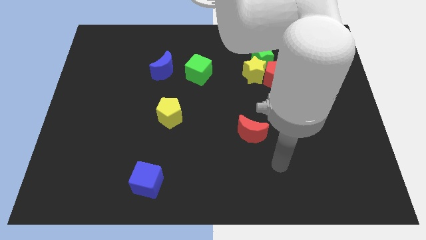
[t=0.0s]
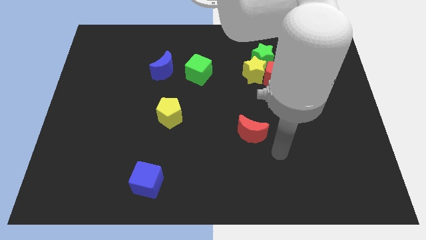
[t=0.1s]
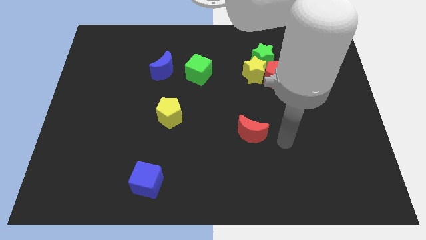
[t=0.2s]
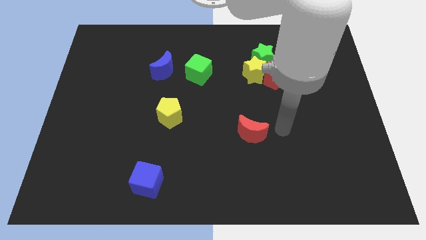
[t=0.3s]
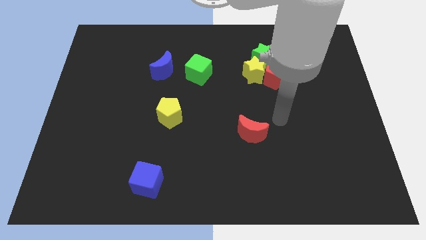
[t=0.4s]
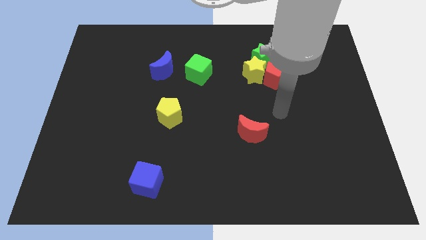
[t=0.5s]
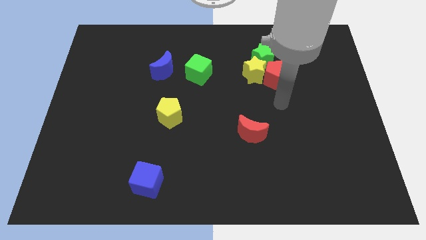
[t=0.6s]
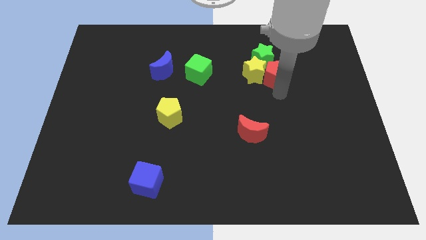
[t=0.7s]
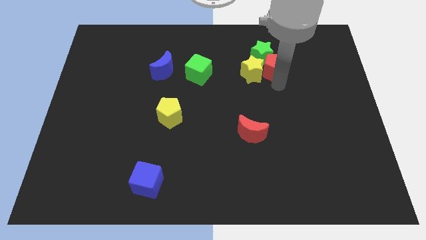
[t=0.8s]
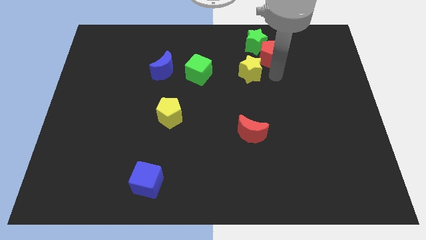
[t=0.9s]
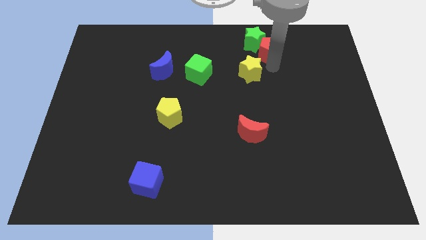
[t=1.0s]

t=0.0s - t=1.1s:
separate the yellow star from the red pentagon and green star

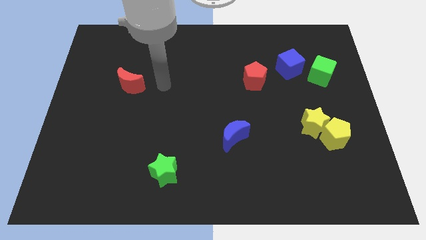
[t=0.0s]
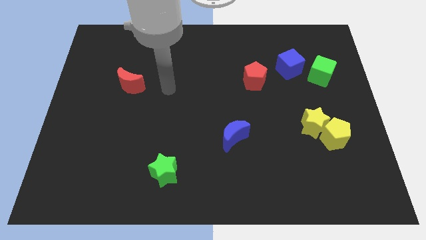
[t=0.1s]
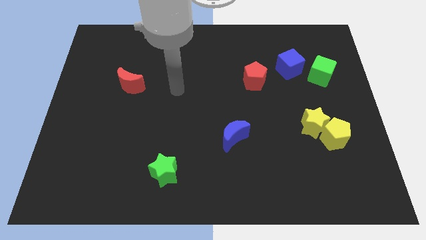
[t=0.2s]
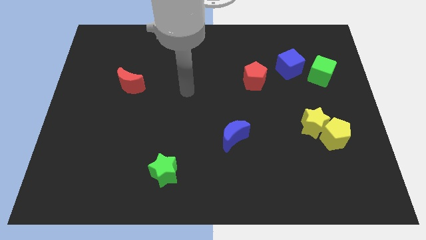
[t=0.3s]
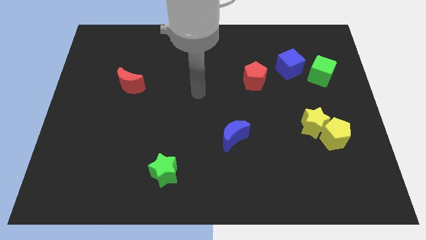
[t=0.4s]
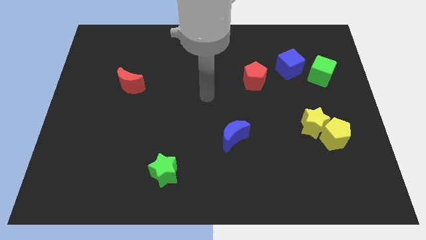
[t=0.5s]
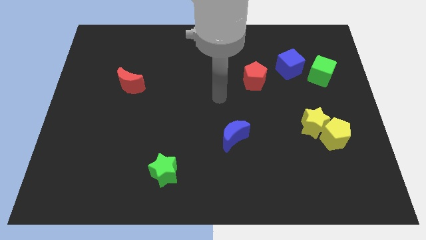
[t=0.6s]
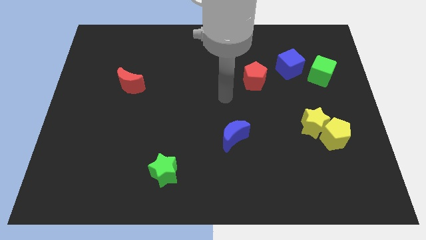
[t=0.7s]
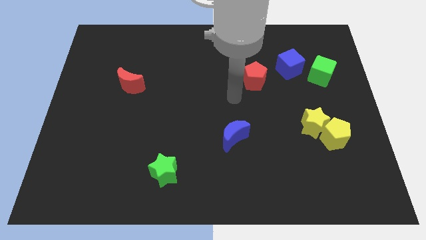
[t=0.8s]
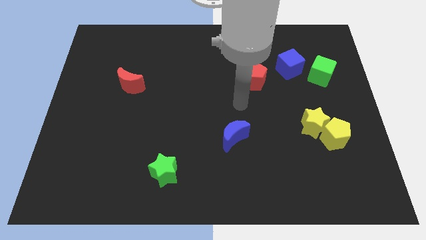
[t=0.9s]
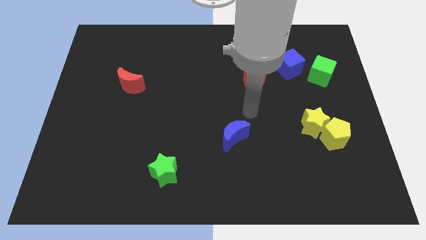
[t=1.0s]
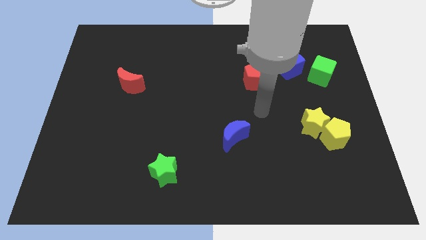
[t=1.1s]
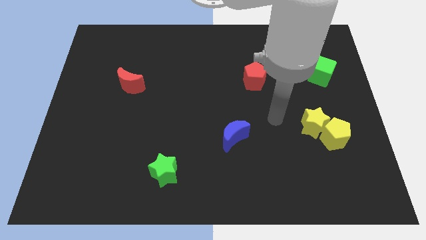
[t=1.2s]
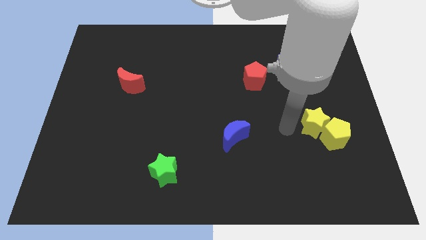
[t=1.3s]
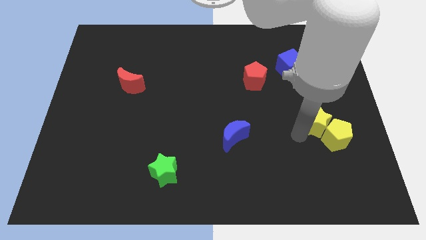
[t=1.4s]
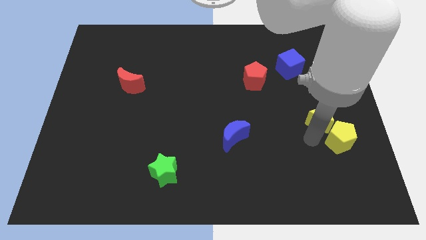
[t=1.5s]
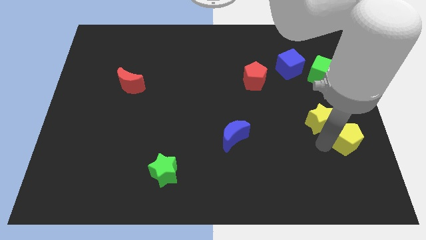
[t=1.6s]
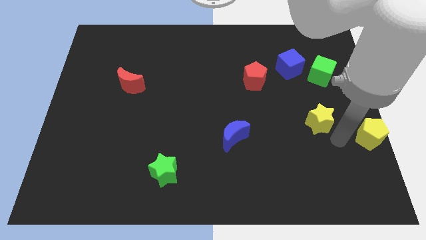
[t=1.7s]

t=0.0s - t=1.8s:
pull the yellow star apart from the yellow pentagon

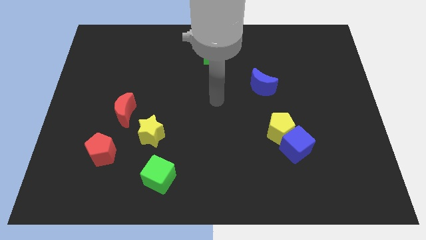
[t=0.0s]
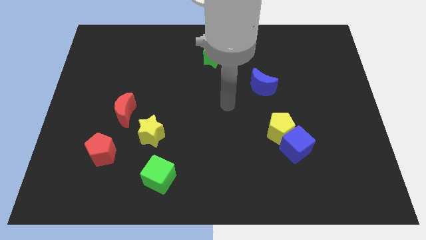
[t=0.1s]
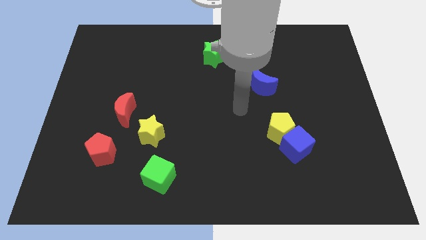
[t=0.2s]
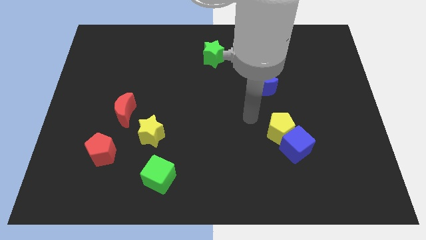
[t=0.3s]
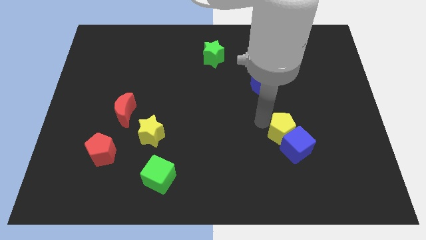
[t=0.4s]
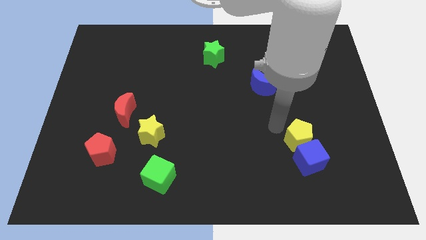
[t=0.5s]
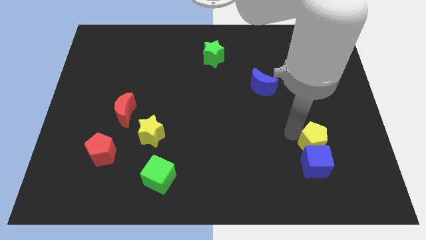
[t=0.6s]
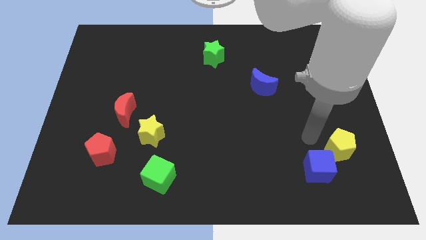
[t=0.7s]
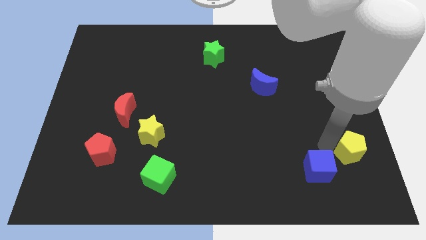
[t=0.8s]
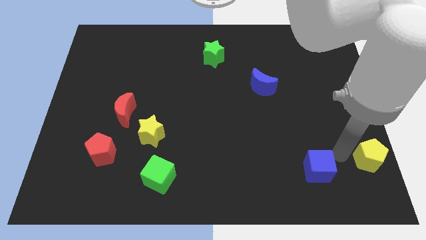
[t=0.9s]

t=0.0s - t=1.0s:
move the blue cube away from the yellow pentagon

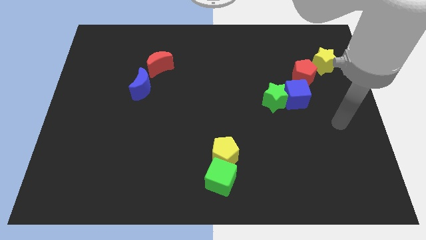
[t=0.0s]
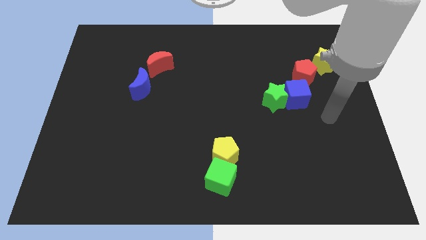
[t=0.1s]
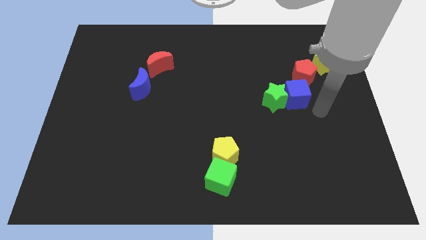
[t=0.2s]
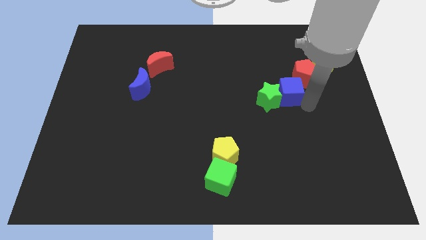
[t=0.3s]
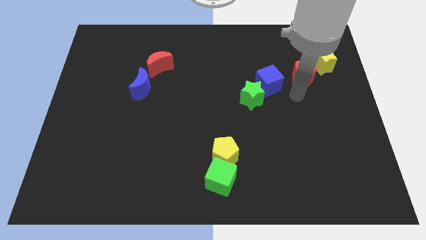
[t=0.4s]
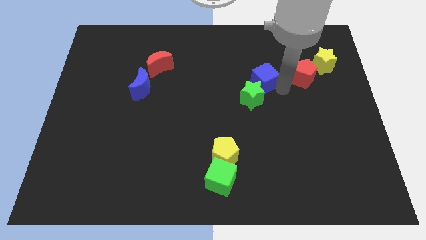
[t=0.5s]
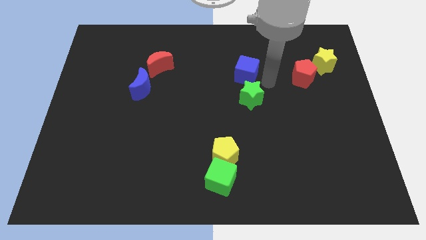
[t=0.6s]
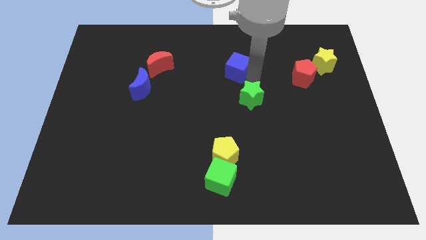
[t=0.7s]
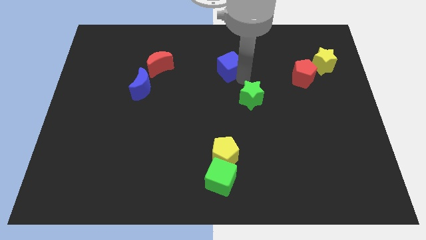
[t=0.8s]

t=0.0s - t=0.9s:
separate the green star from the blue cube

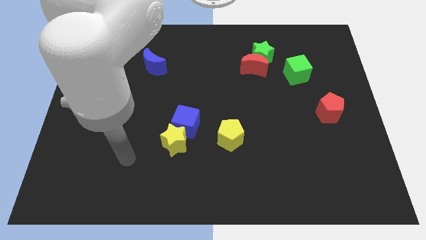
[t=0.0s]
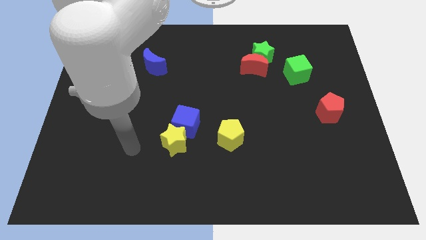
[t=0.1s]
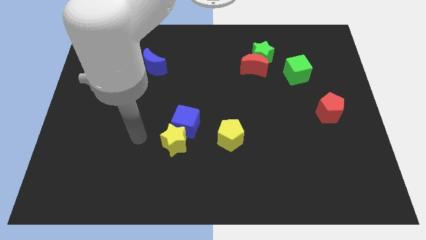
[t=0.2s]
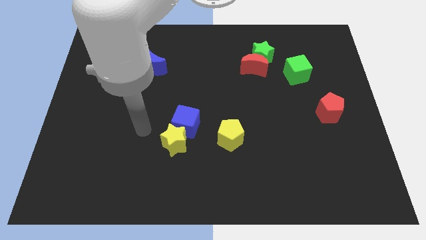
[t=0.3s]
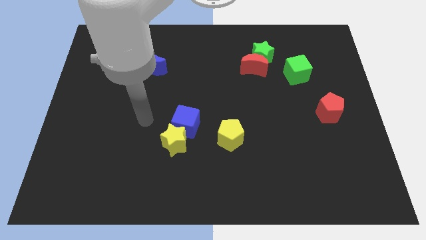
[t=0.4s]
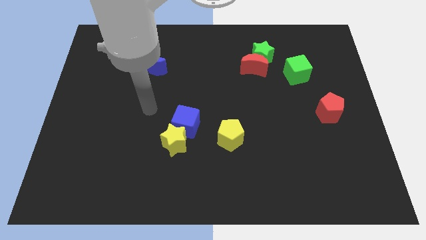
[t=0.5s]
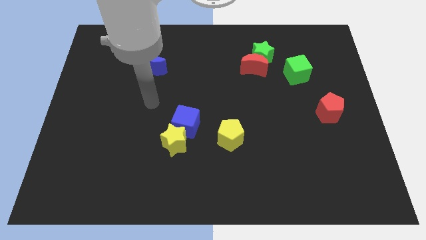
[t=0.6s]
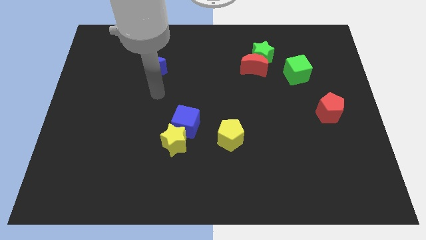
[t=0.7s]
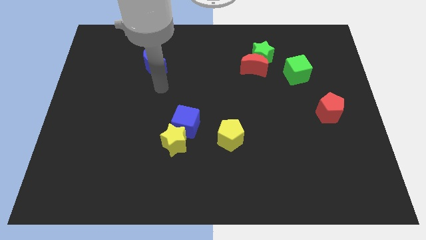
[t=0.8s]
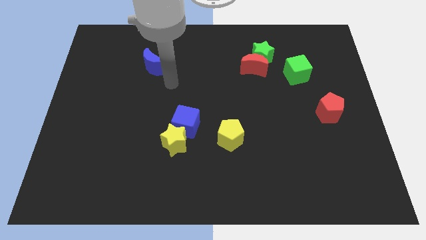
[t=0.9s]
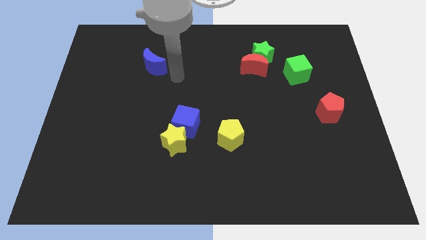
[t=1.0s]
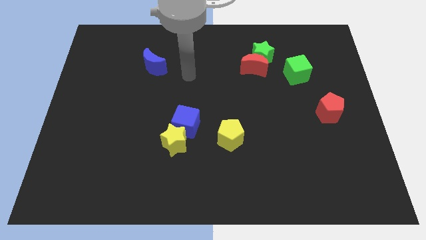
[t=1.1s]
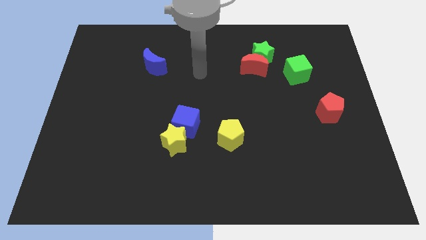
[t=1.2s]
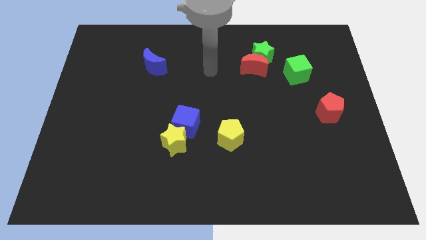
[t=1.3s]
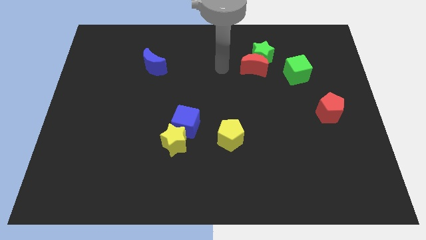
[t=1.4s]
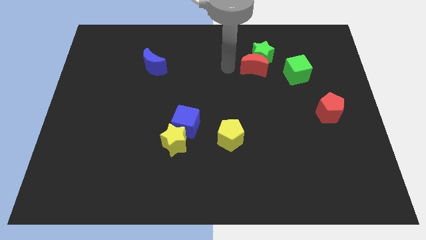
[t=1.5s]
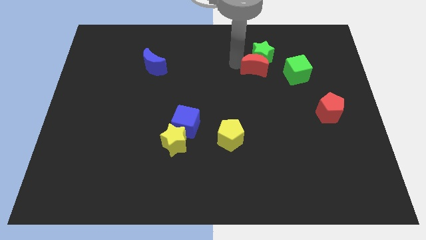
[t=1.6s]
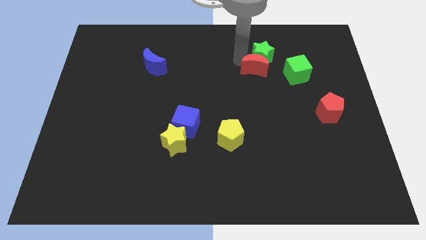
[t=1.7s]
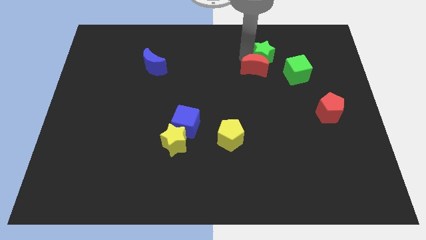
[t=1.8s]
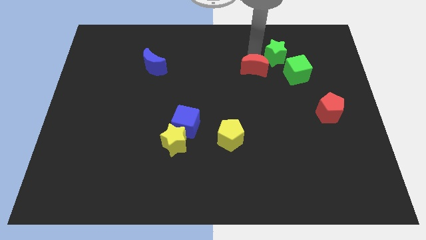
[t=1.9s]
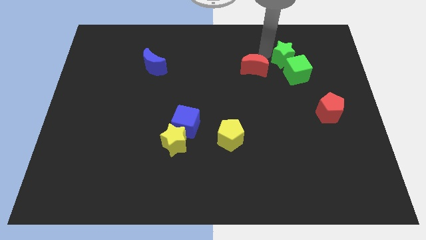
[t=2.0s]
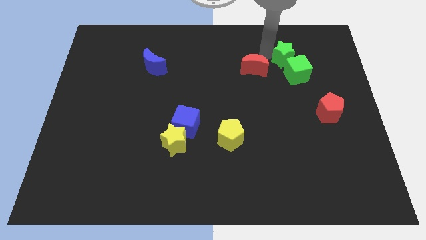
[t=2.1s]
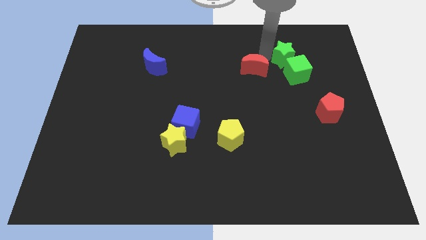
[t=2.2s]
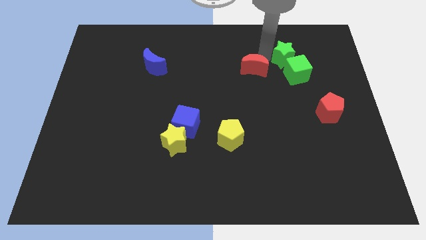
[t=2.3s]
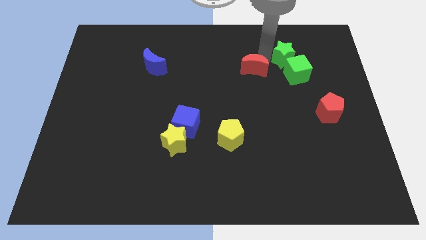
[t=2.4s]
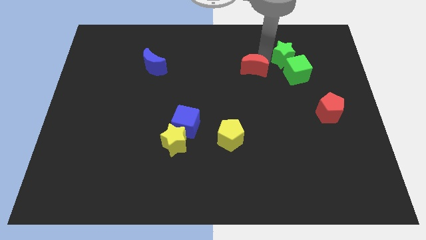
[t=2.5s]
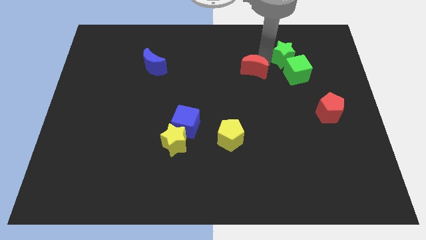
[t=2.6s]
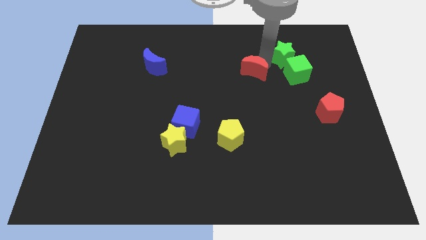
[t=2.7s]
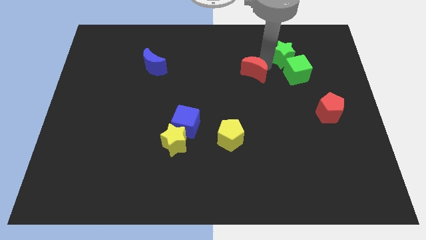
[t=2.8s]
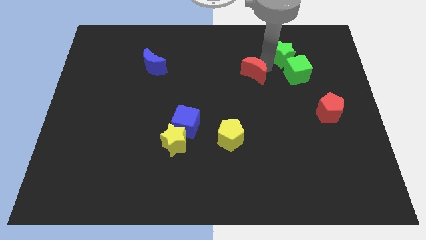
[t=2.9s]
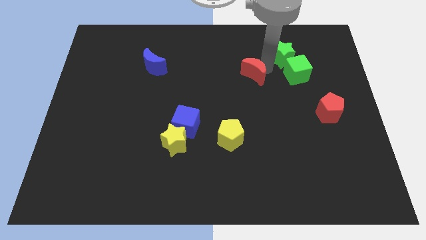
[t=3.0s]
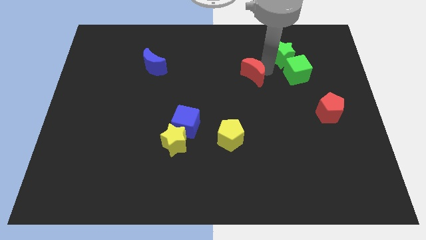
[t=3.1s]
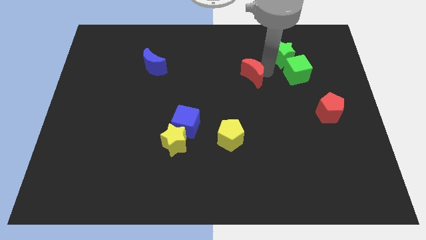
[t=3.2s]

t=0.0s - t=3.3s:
move the red moon away from the green star

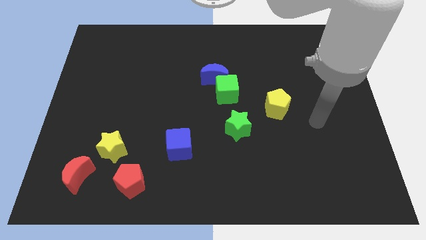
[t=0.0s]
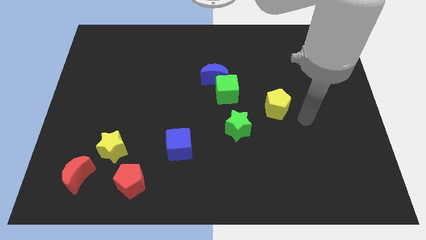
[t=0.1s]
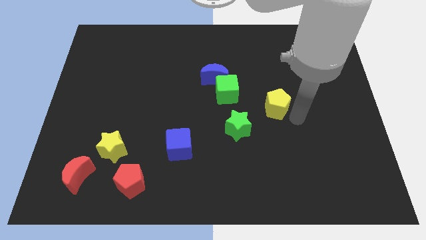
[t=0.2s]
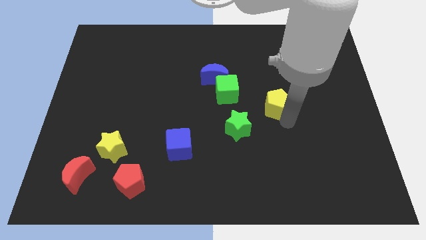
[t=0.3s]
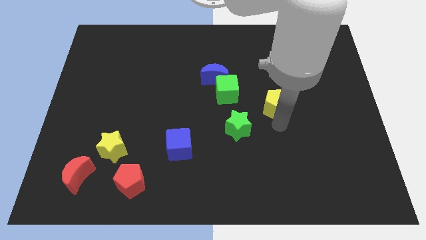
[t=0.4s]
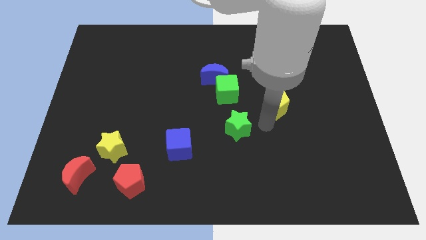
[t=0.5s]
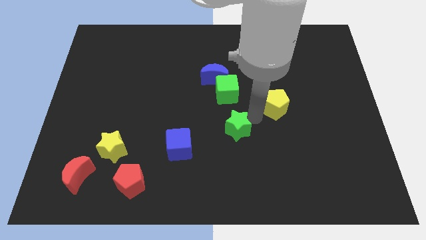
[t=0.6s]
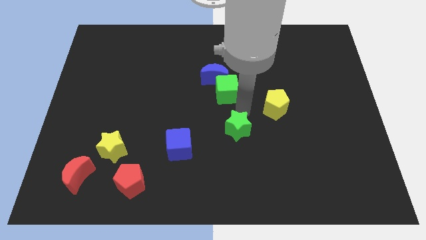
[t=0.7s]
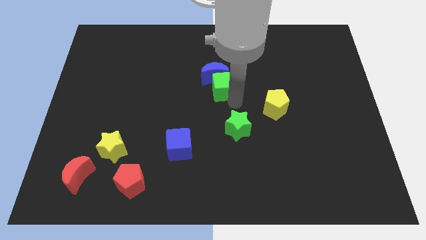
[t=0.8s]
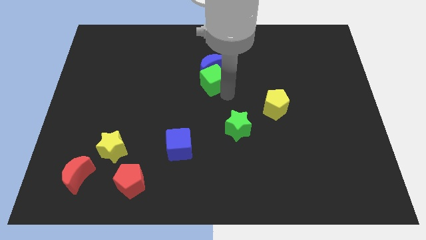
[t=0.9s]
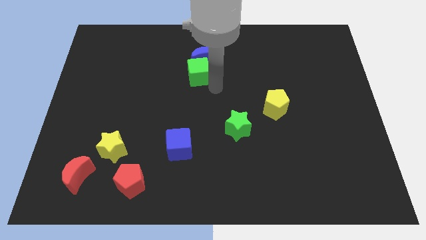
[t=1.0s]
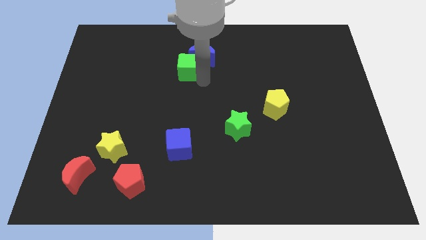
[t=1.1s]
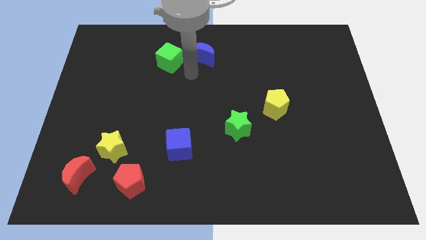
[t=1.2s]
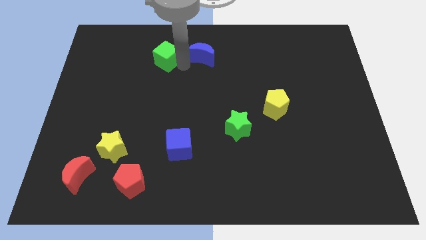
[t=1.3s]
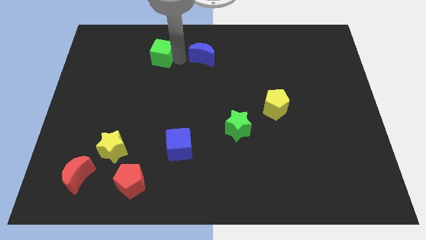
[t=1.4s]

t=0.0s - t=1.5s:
move the blue moon away from the green cube
